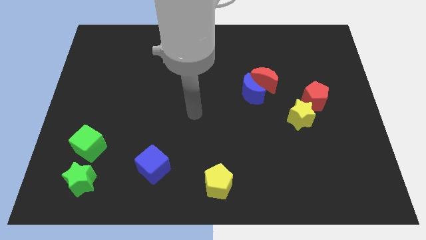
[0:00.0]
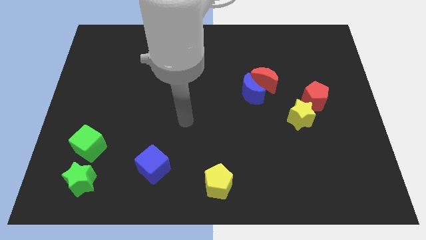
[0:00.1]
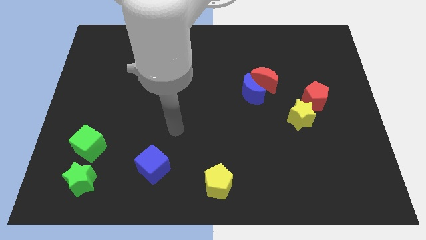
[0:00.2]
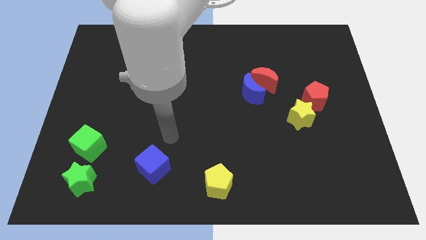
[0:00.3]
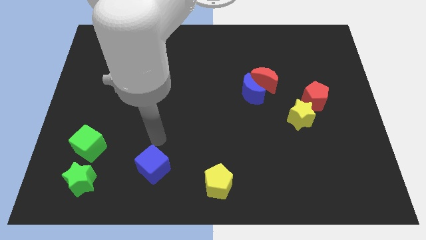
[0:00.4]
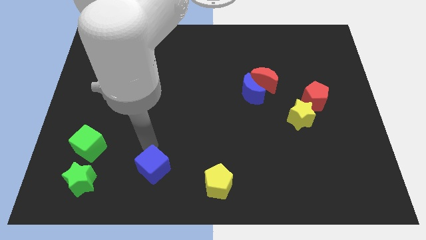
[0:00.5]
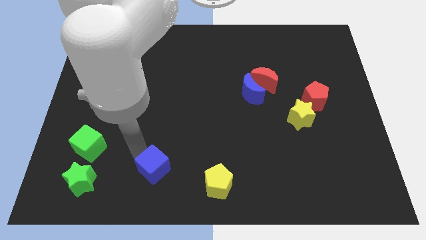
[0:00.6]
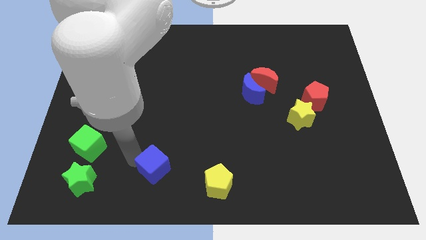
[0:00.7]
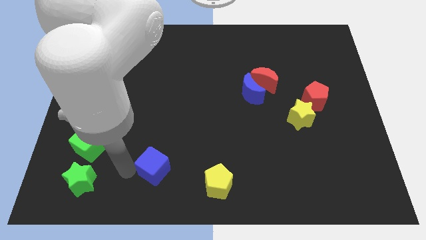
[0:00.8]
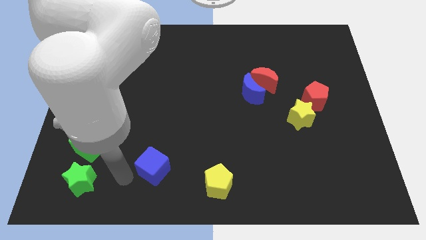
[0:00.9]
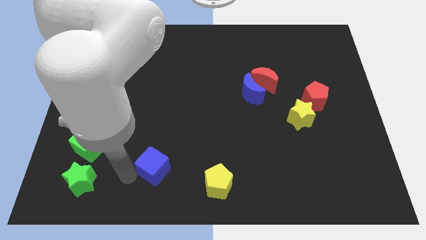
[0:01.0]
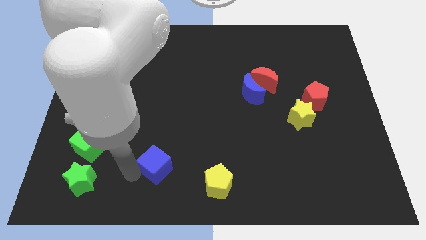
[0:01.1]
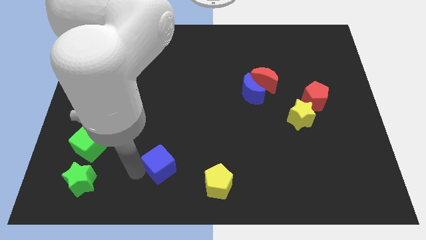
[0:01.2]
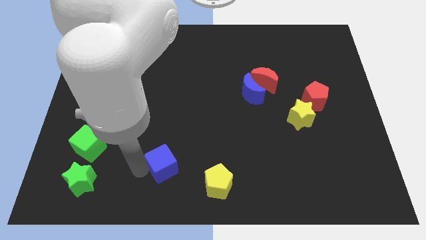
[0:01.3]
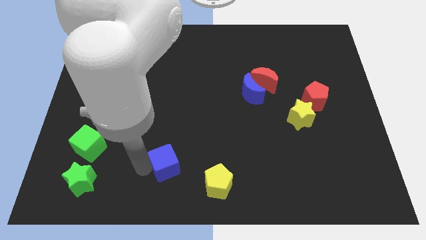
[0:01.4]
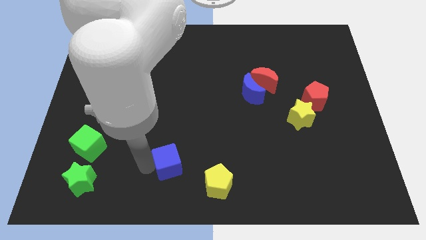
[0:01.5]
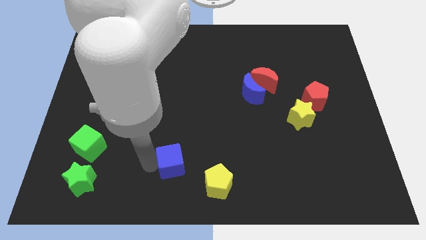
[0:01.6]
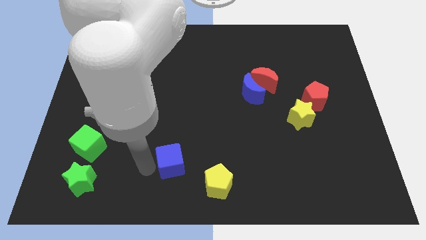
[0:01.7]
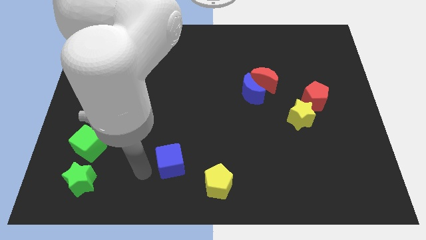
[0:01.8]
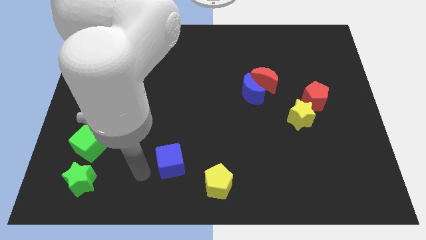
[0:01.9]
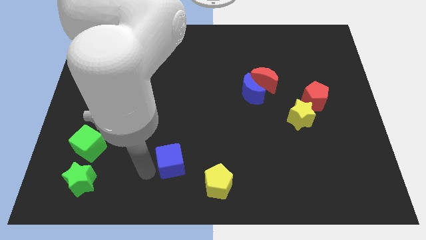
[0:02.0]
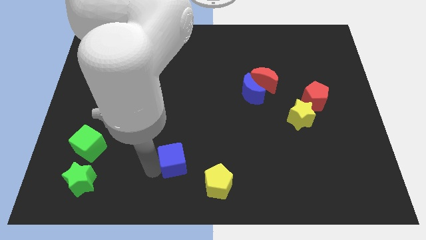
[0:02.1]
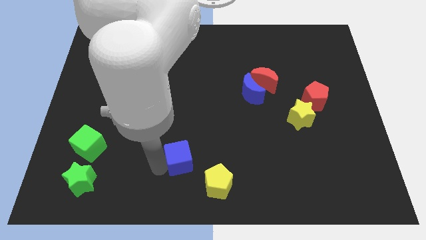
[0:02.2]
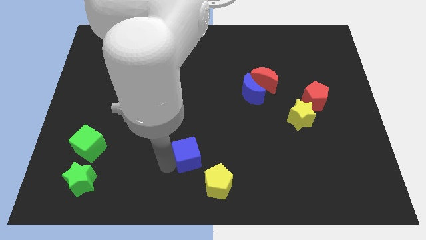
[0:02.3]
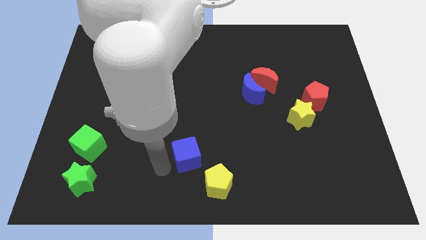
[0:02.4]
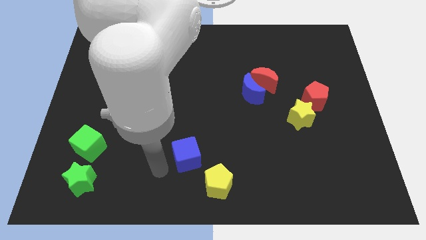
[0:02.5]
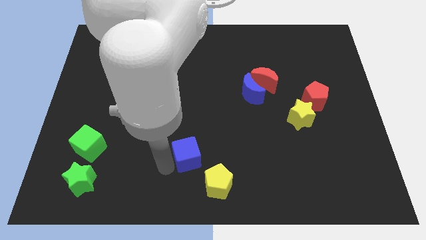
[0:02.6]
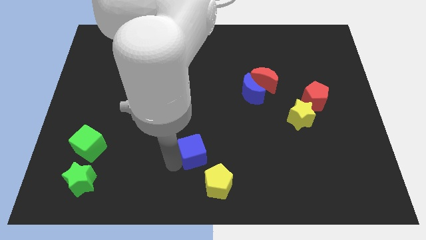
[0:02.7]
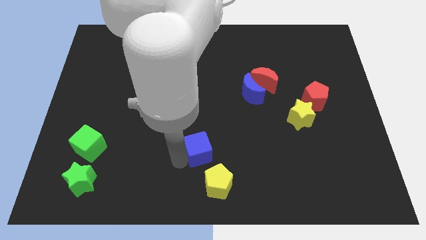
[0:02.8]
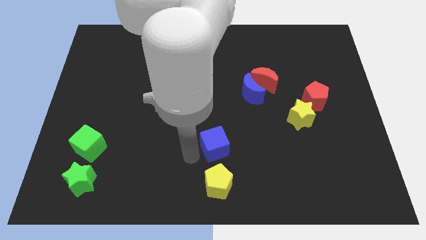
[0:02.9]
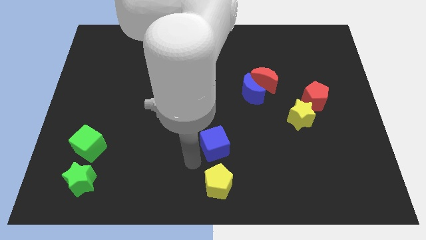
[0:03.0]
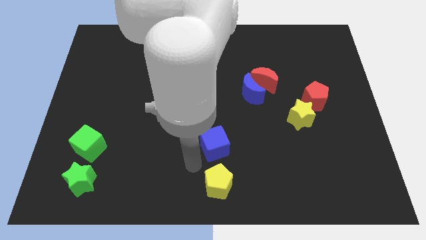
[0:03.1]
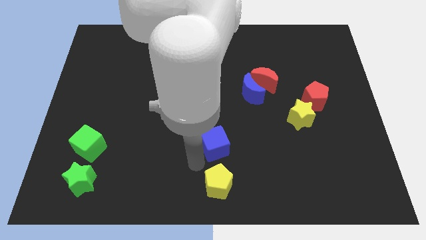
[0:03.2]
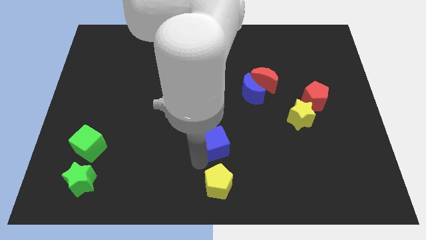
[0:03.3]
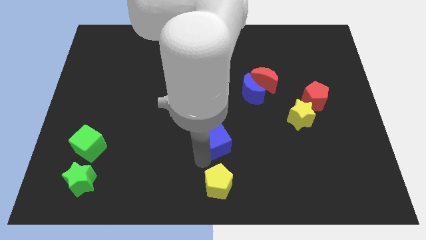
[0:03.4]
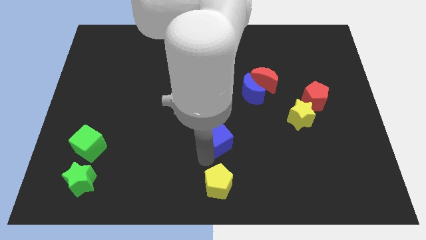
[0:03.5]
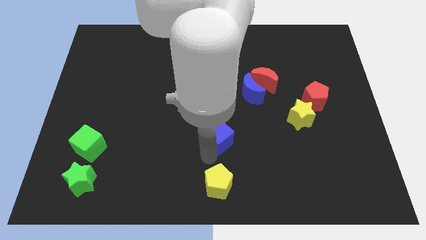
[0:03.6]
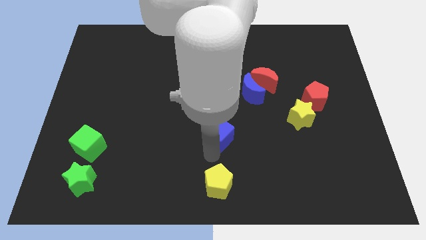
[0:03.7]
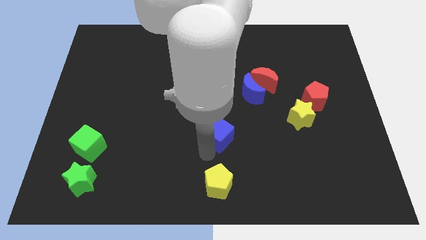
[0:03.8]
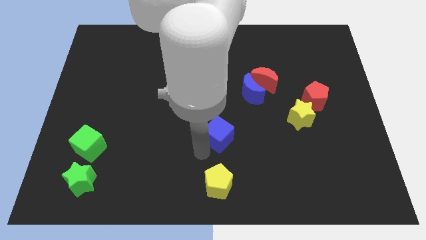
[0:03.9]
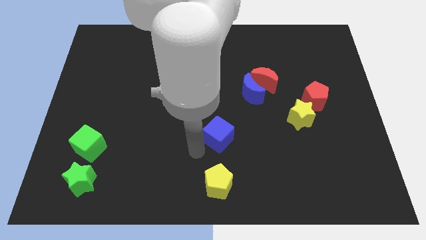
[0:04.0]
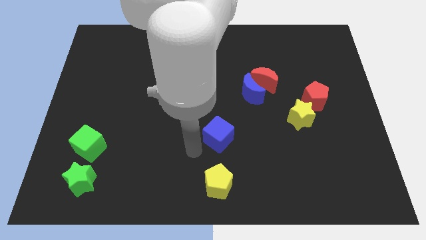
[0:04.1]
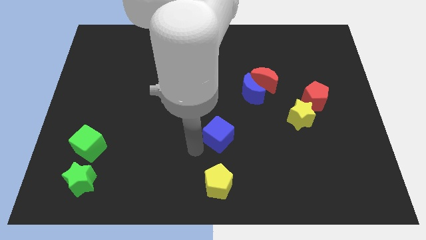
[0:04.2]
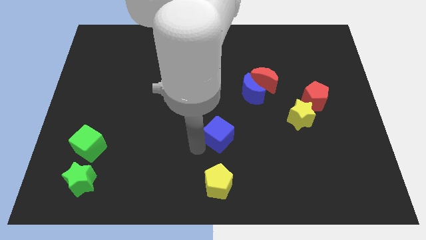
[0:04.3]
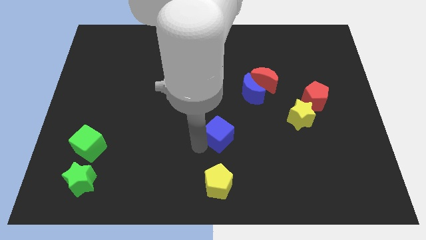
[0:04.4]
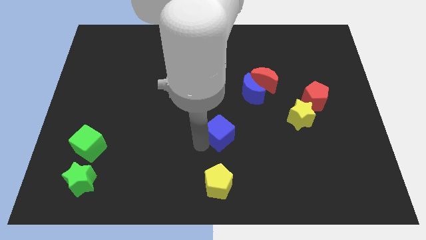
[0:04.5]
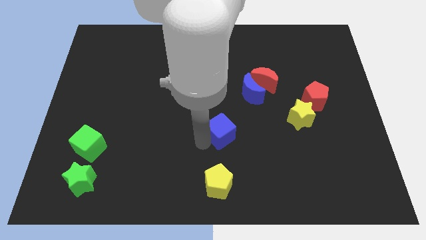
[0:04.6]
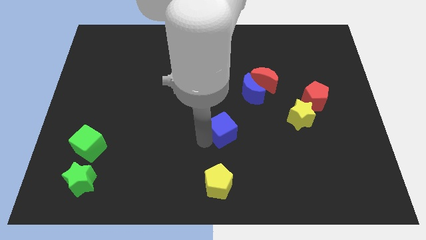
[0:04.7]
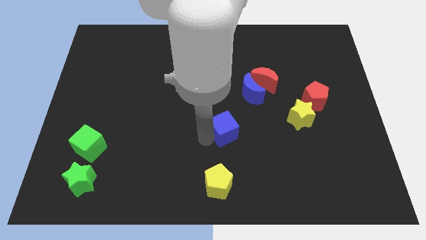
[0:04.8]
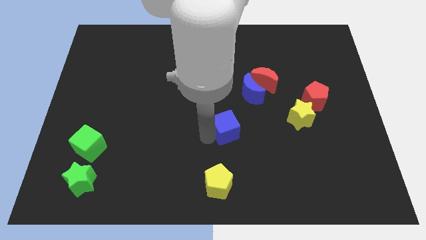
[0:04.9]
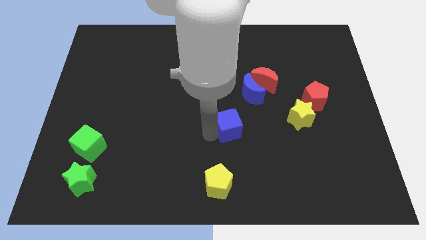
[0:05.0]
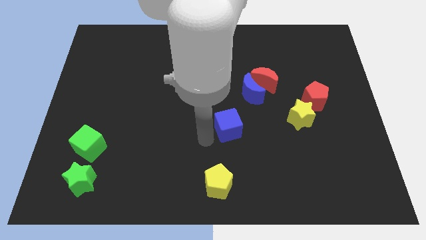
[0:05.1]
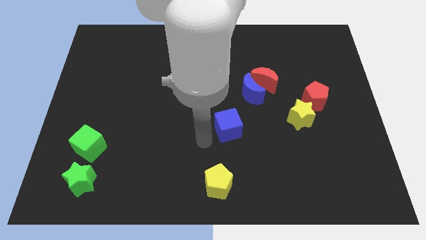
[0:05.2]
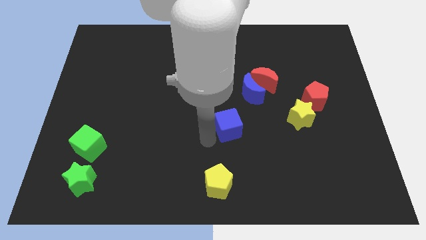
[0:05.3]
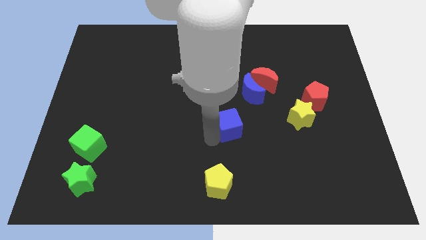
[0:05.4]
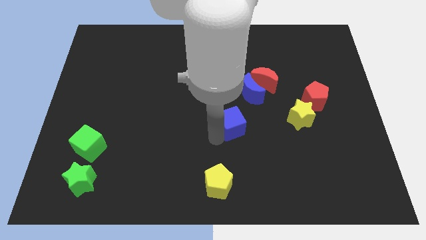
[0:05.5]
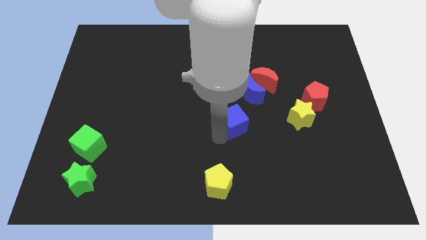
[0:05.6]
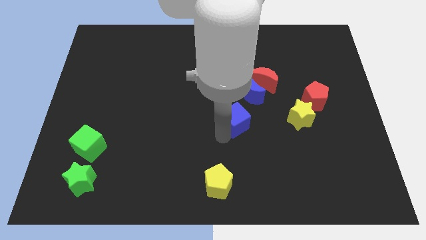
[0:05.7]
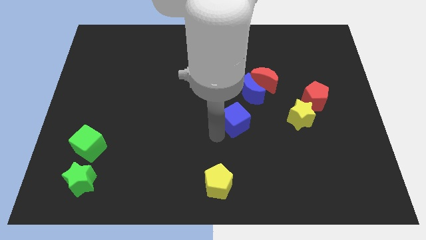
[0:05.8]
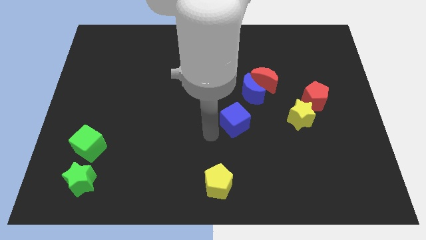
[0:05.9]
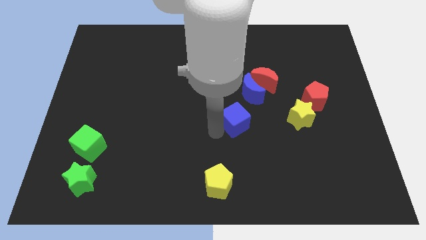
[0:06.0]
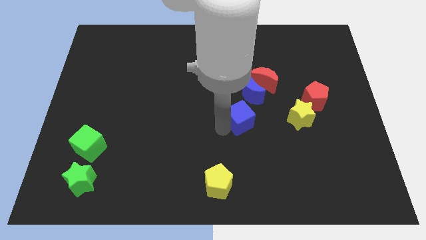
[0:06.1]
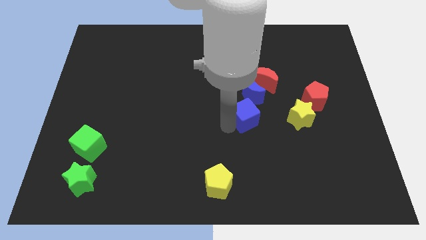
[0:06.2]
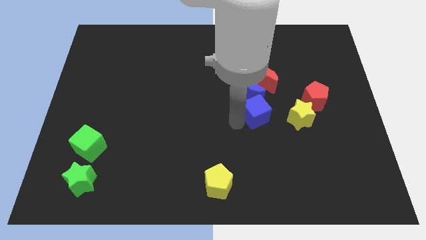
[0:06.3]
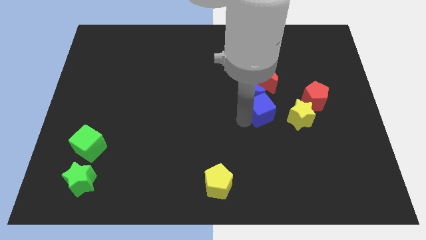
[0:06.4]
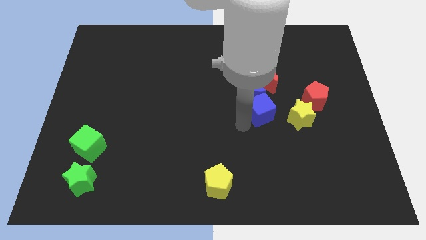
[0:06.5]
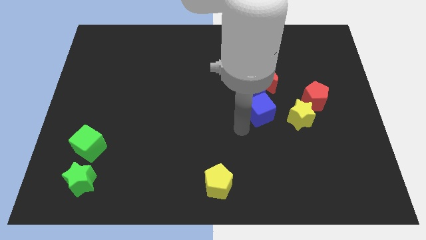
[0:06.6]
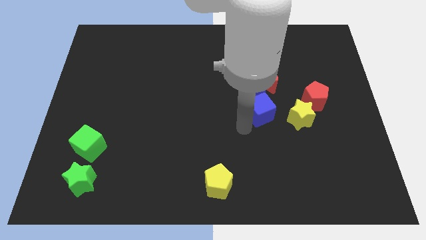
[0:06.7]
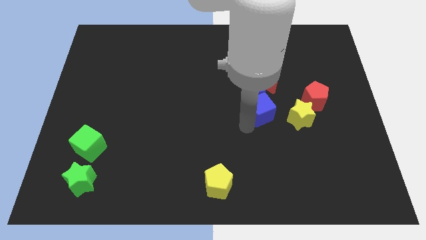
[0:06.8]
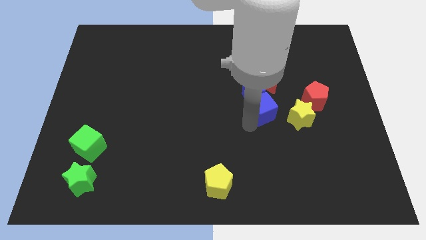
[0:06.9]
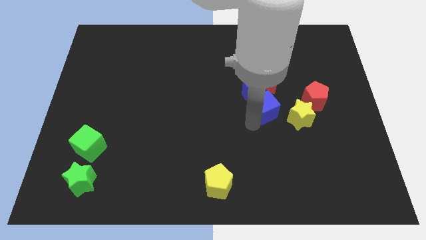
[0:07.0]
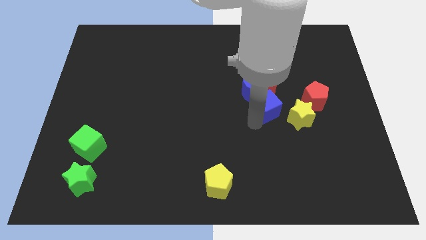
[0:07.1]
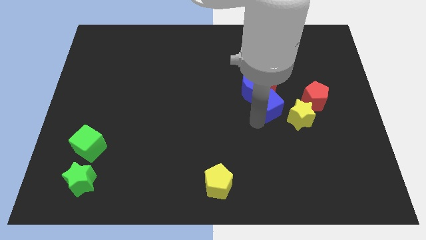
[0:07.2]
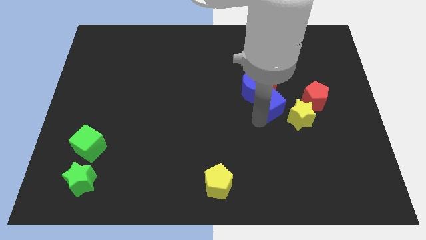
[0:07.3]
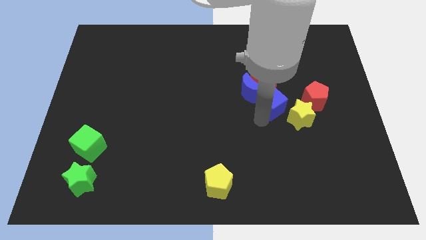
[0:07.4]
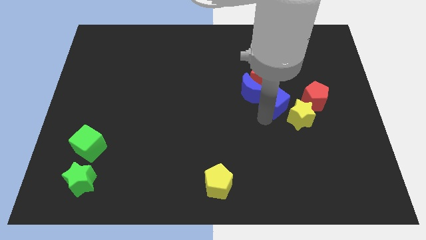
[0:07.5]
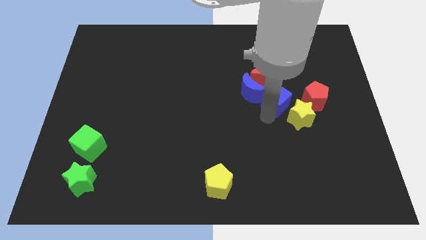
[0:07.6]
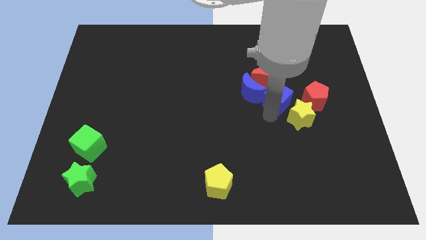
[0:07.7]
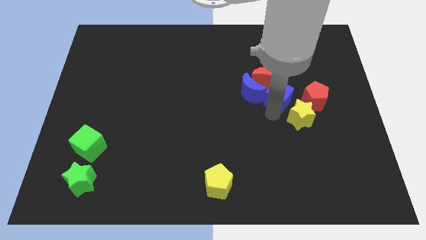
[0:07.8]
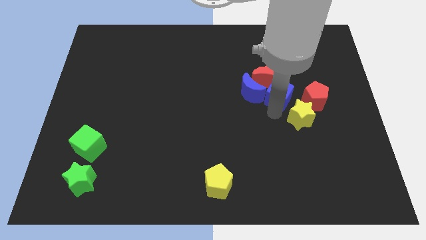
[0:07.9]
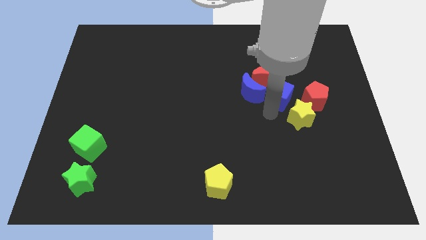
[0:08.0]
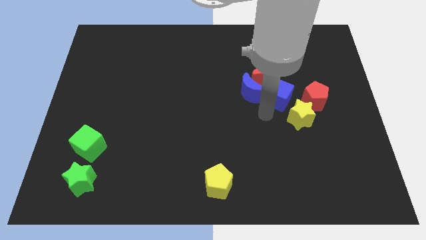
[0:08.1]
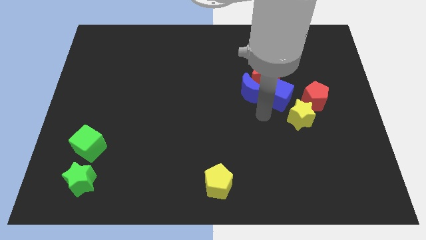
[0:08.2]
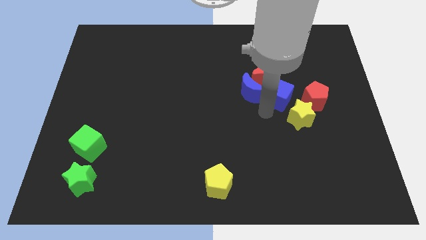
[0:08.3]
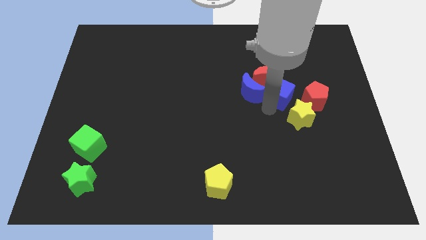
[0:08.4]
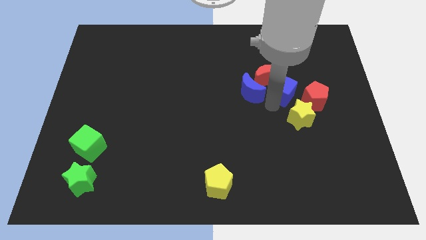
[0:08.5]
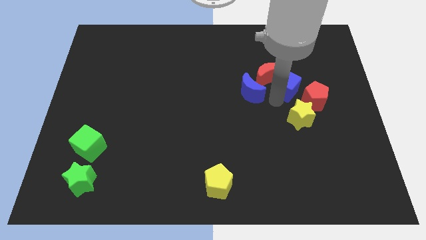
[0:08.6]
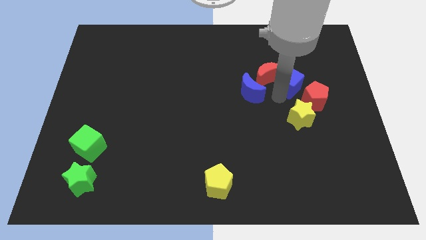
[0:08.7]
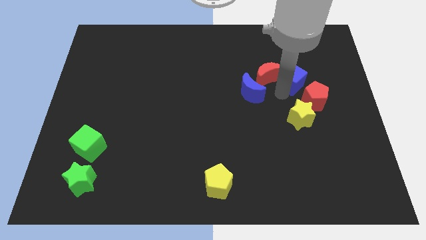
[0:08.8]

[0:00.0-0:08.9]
put the blue cube to the top of the red pentagon
